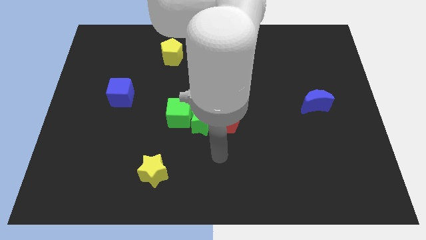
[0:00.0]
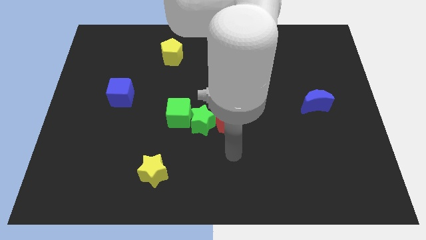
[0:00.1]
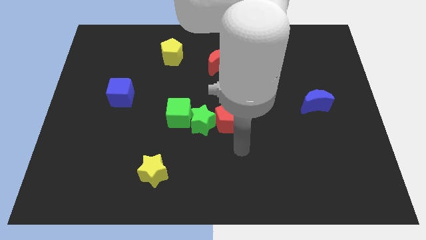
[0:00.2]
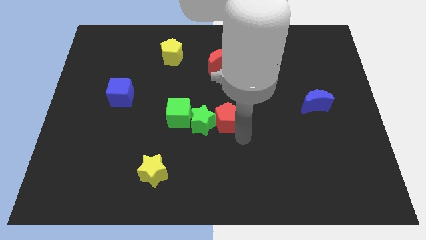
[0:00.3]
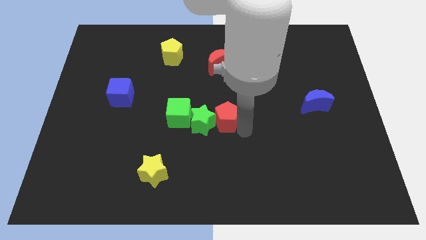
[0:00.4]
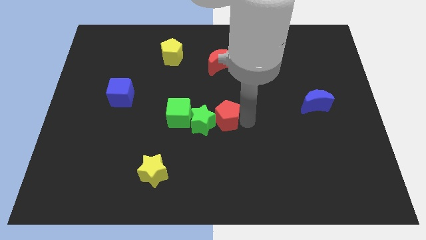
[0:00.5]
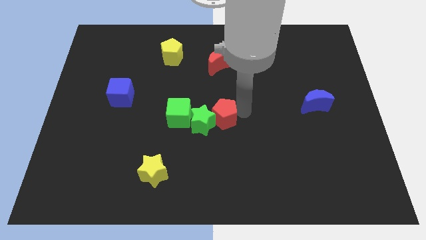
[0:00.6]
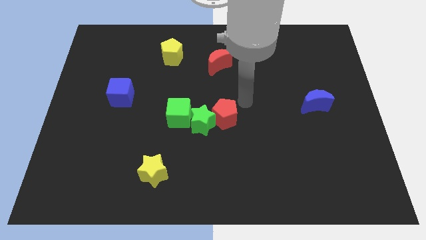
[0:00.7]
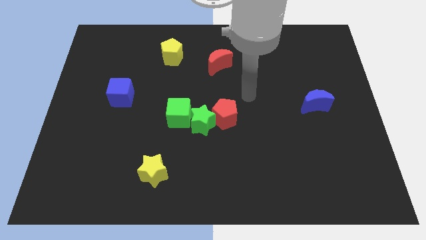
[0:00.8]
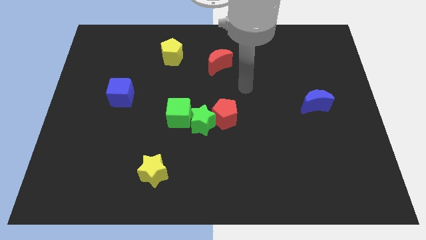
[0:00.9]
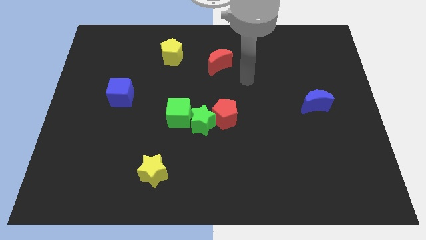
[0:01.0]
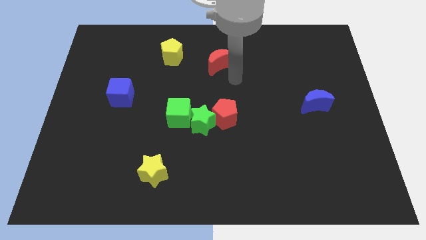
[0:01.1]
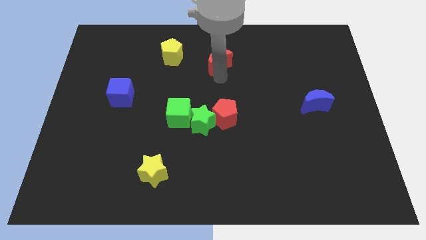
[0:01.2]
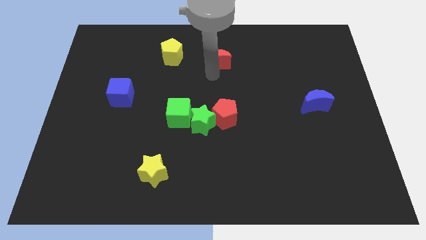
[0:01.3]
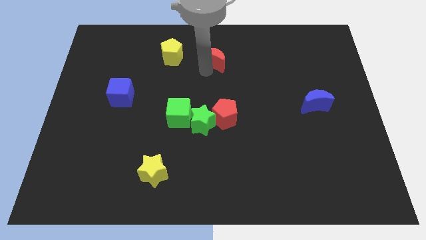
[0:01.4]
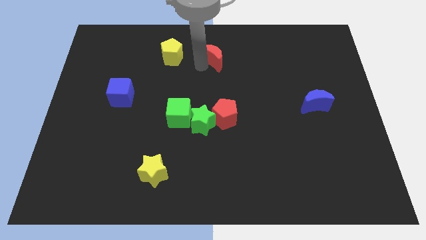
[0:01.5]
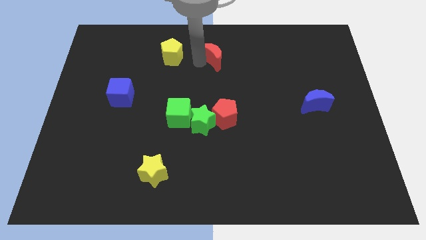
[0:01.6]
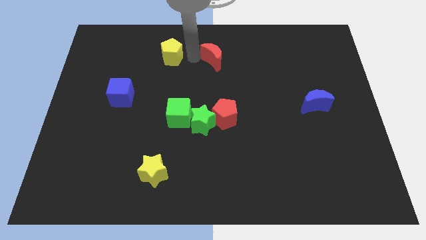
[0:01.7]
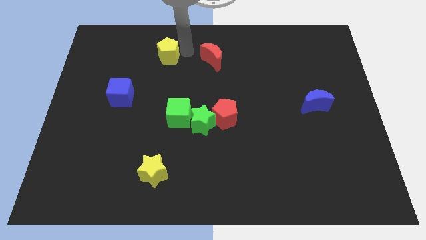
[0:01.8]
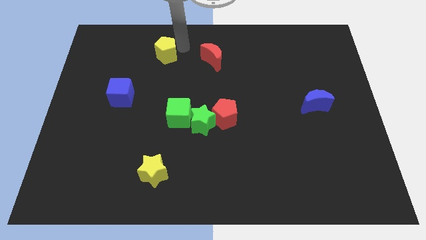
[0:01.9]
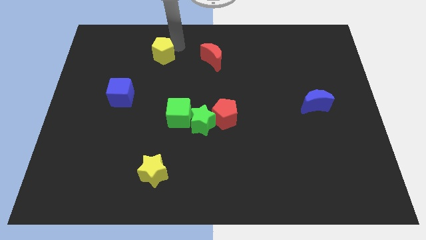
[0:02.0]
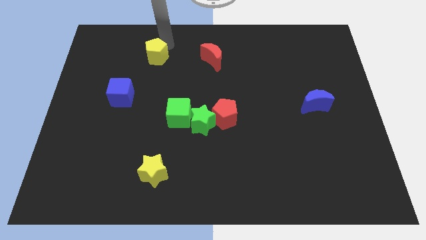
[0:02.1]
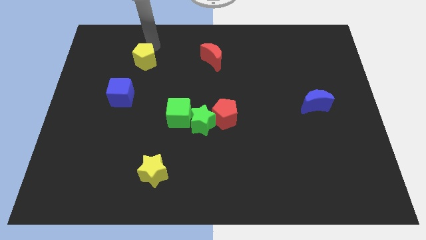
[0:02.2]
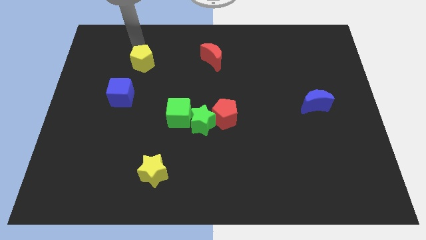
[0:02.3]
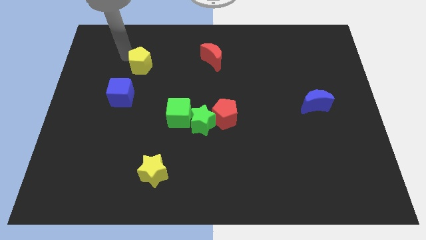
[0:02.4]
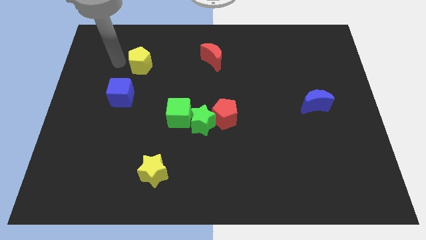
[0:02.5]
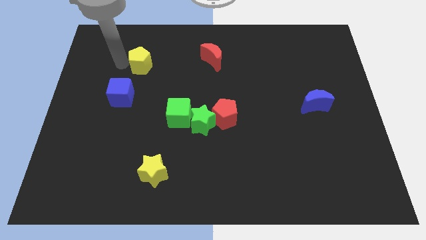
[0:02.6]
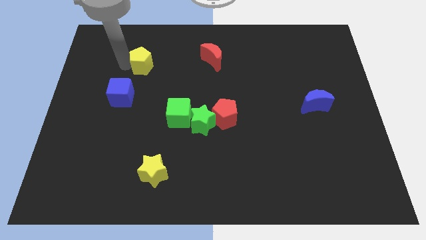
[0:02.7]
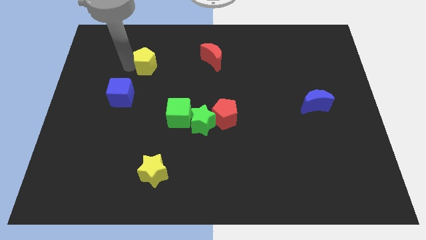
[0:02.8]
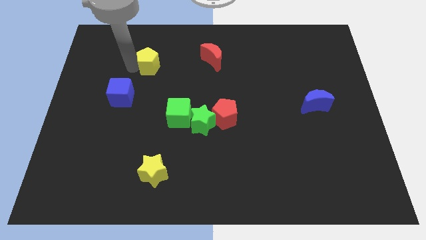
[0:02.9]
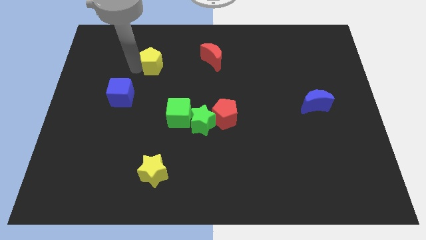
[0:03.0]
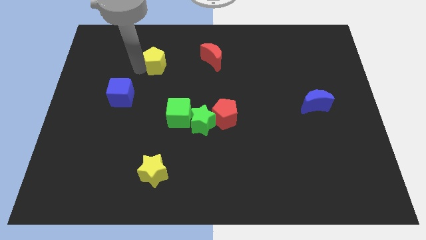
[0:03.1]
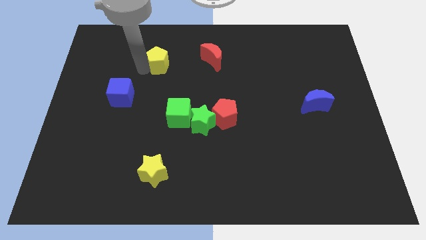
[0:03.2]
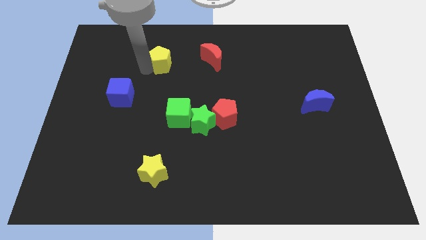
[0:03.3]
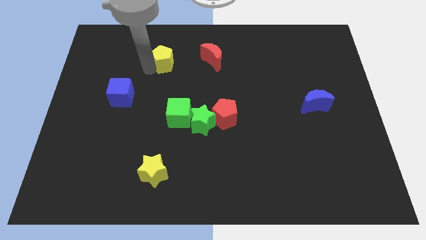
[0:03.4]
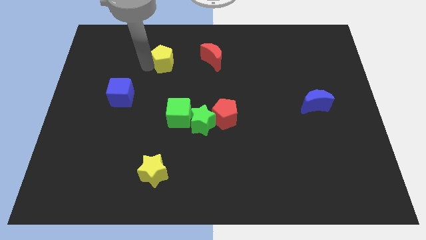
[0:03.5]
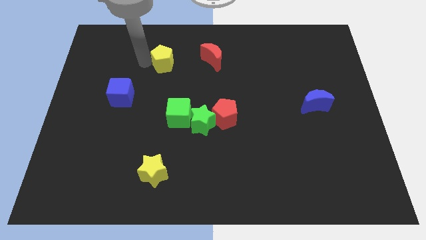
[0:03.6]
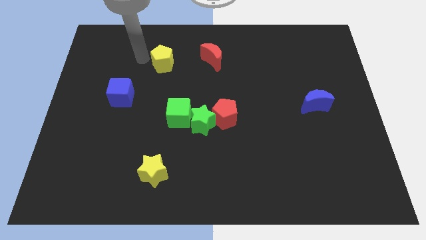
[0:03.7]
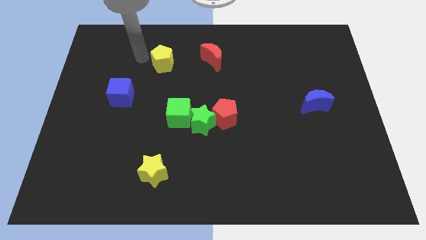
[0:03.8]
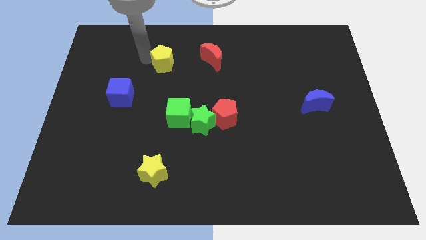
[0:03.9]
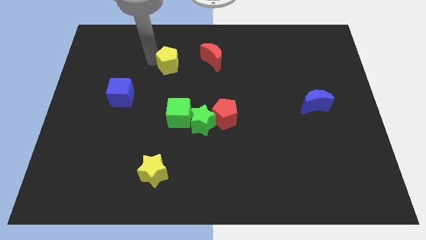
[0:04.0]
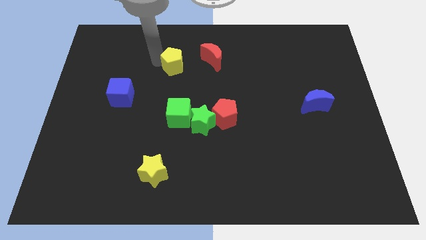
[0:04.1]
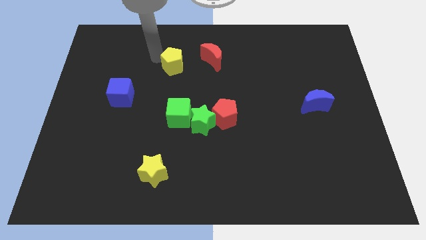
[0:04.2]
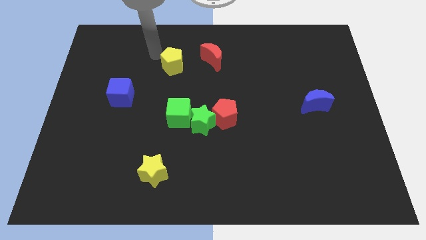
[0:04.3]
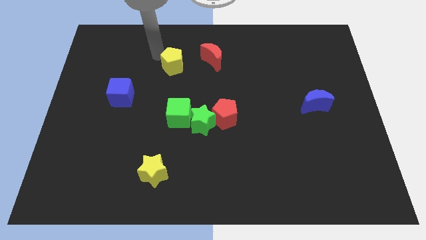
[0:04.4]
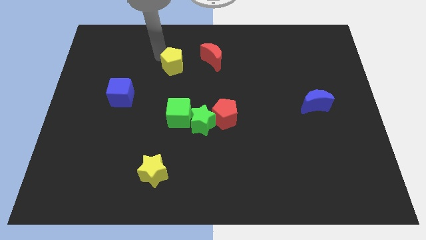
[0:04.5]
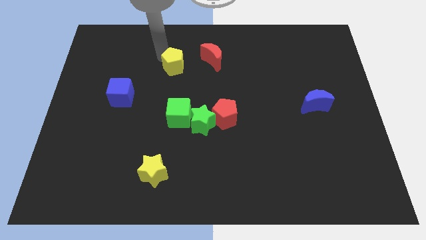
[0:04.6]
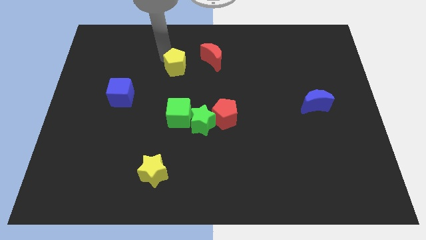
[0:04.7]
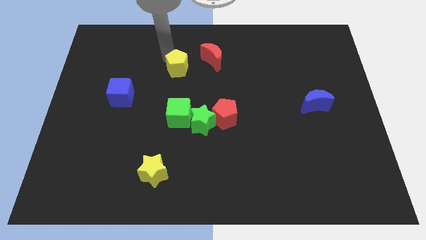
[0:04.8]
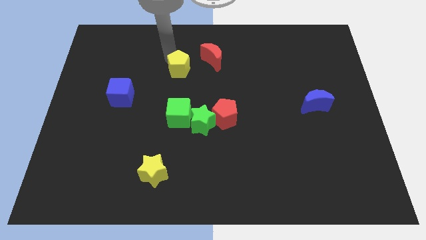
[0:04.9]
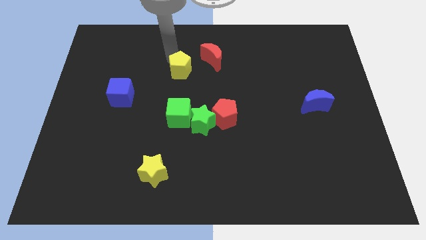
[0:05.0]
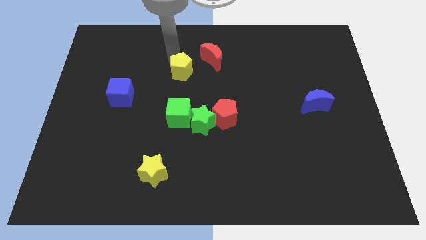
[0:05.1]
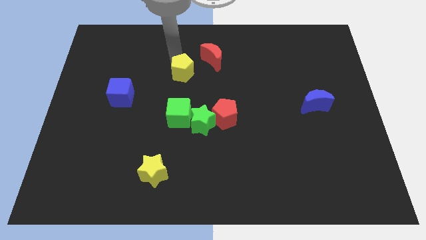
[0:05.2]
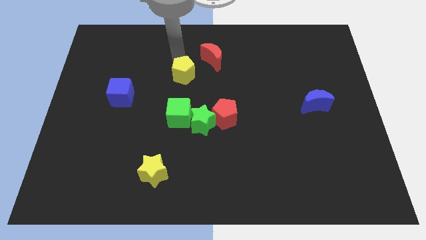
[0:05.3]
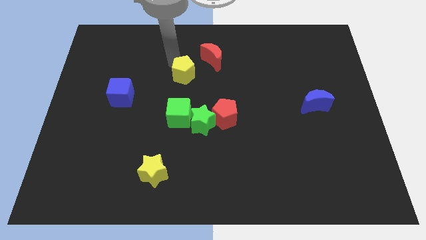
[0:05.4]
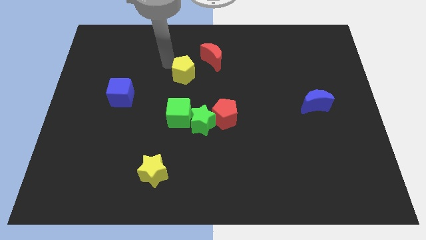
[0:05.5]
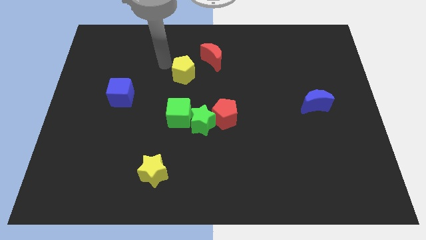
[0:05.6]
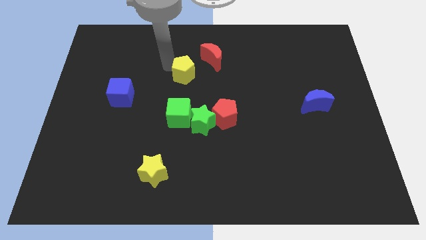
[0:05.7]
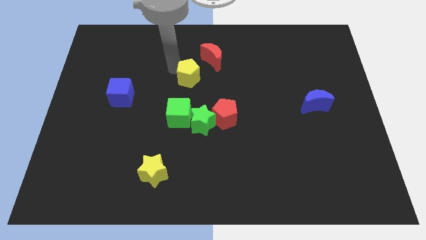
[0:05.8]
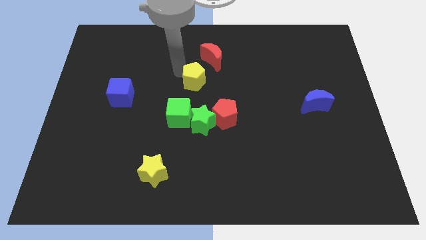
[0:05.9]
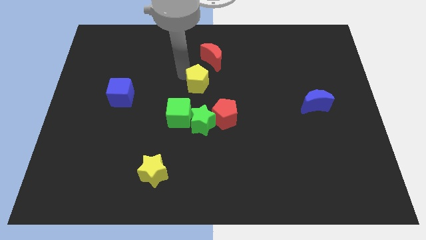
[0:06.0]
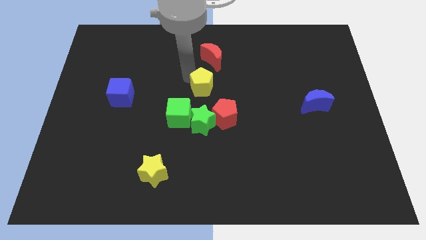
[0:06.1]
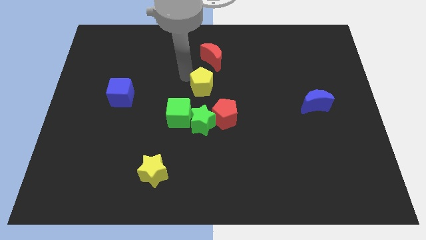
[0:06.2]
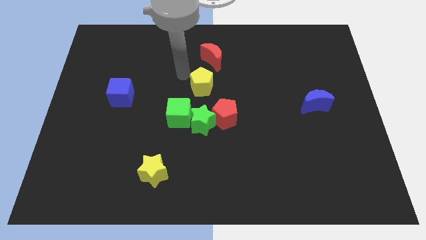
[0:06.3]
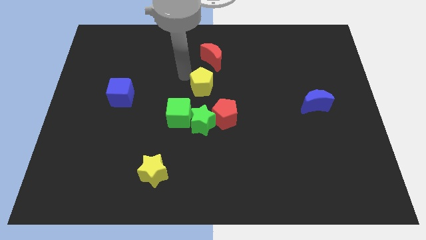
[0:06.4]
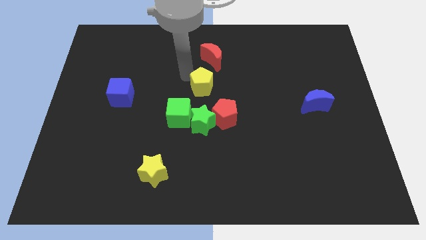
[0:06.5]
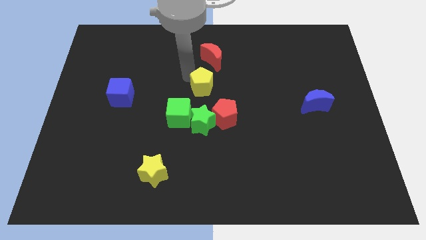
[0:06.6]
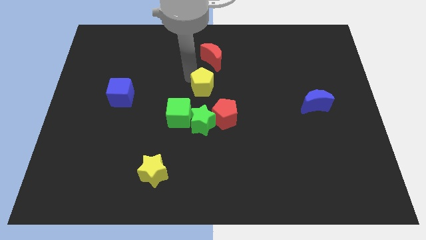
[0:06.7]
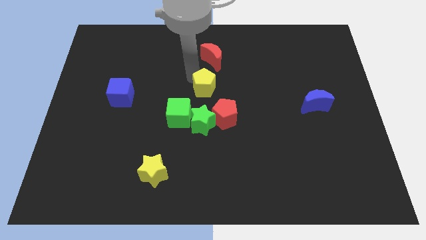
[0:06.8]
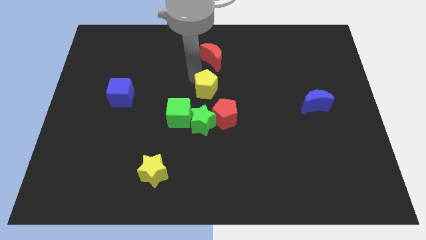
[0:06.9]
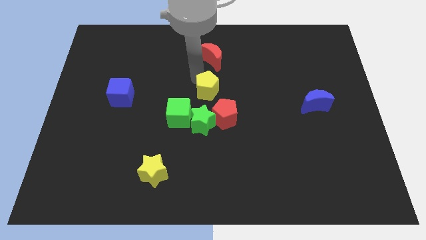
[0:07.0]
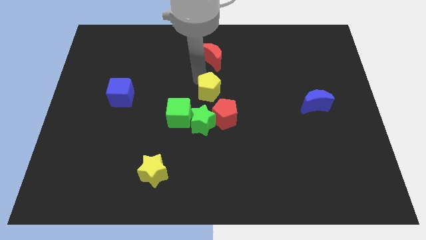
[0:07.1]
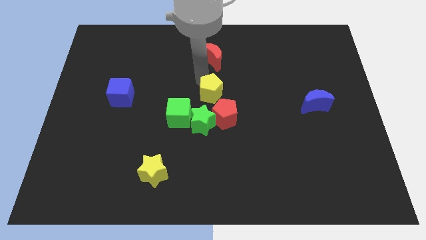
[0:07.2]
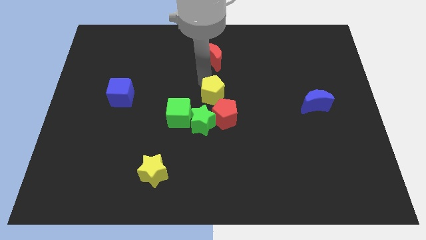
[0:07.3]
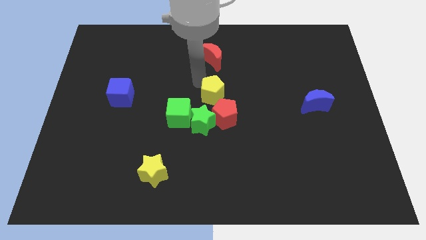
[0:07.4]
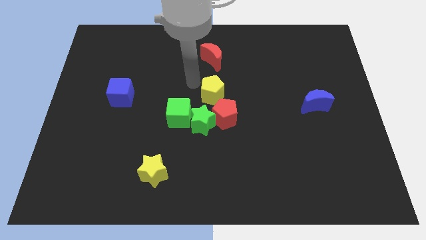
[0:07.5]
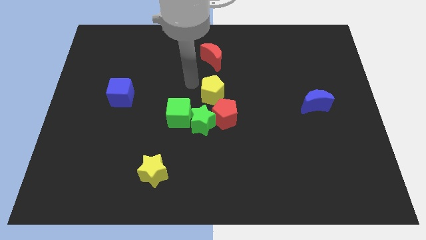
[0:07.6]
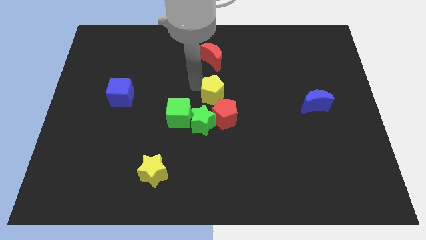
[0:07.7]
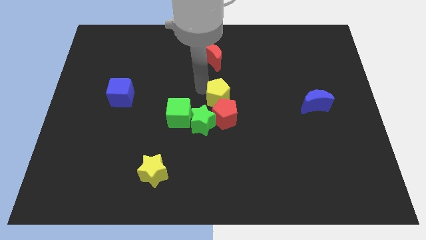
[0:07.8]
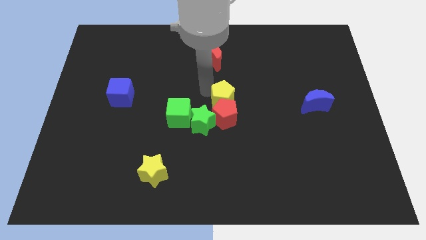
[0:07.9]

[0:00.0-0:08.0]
push the yellow pentagon downwards and to the right diagonally

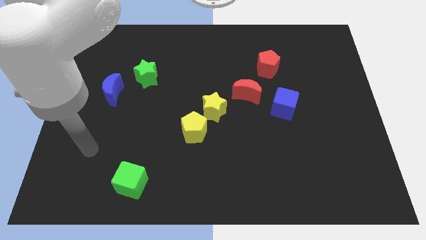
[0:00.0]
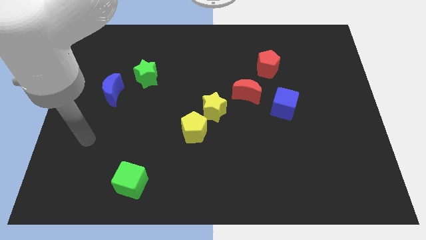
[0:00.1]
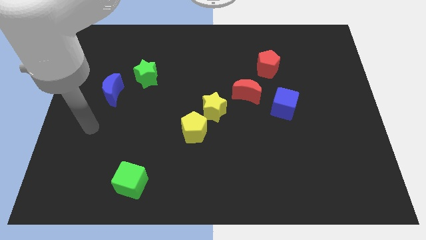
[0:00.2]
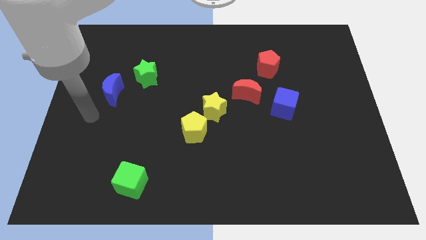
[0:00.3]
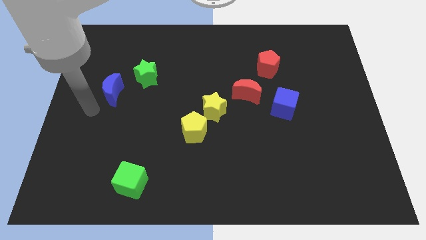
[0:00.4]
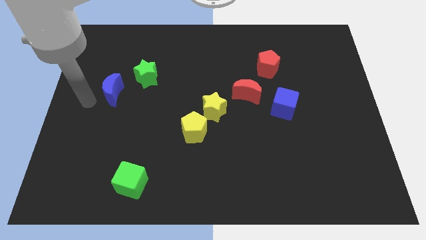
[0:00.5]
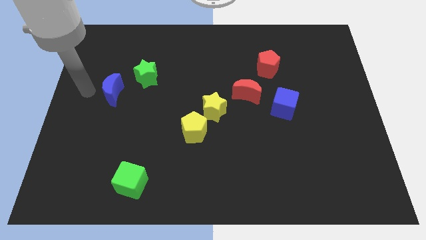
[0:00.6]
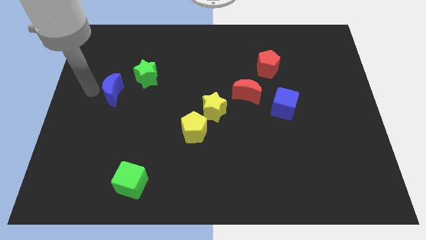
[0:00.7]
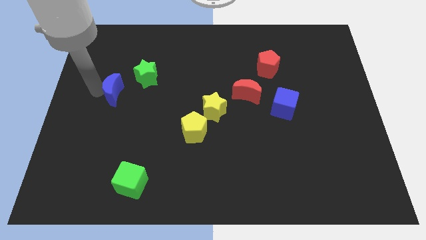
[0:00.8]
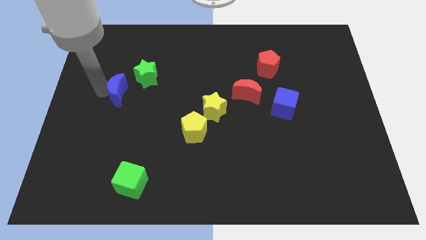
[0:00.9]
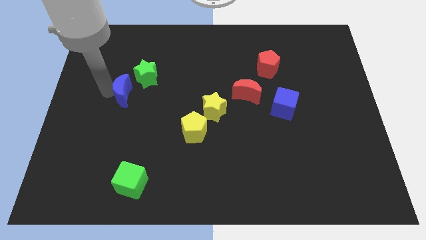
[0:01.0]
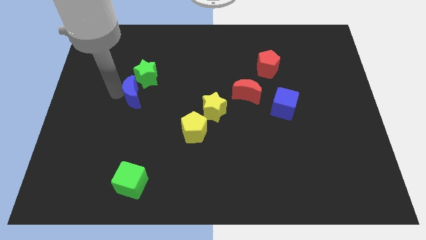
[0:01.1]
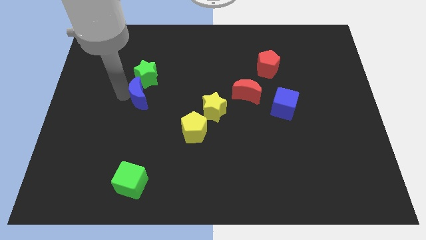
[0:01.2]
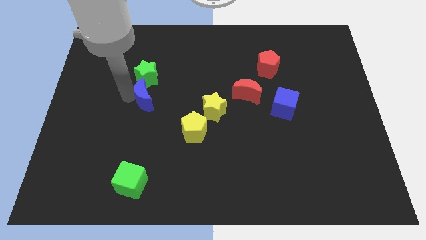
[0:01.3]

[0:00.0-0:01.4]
move the blue moon somewhat to the right
